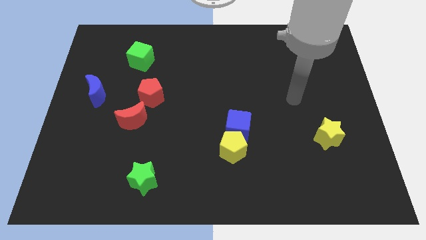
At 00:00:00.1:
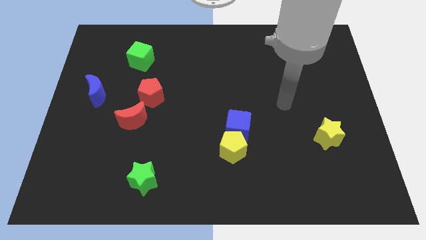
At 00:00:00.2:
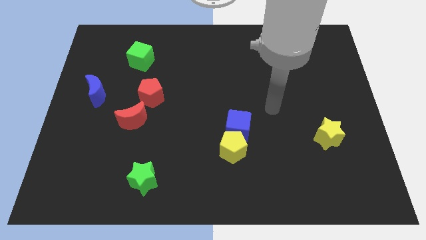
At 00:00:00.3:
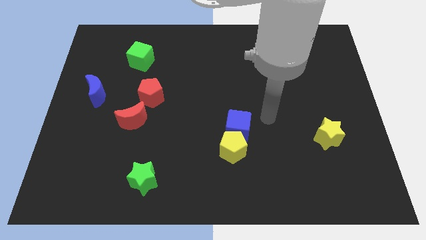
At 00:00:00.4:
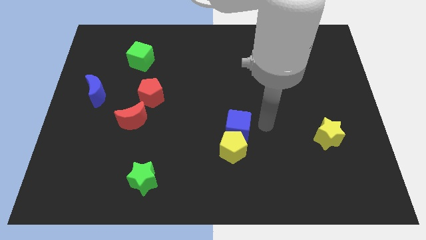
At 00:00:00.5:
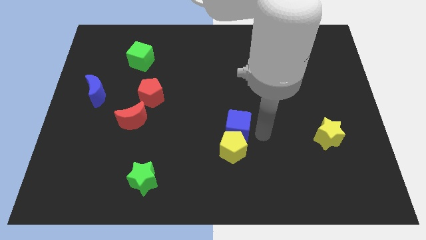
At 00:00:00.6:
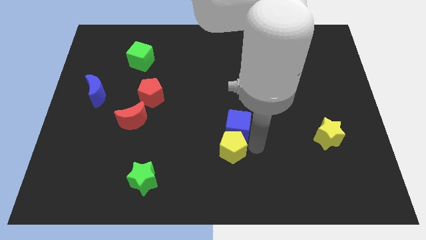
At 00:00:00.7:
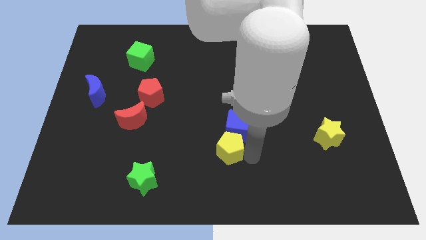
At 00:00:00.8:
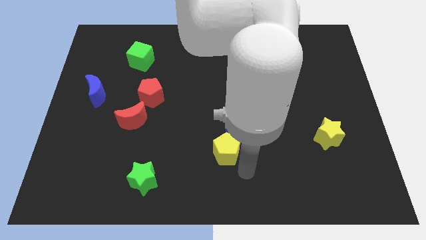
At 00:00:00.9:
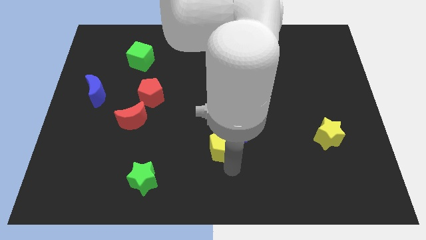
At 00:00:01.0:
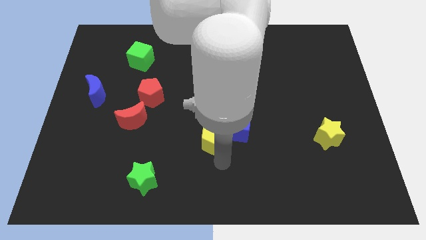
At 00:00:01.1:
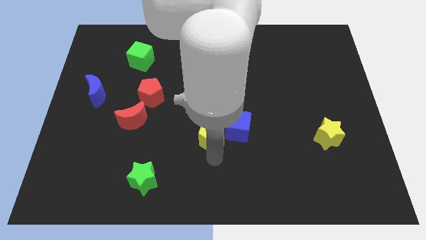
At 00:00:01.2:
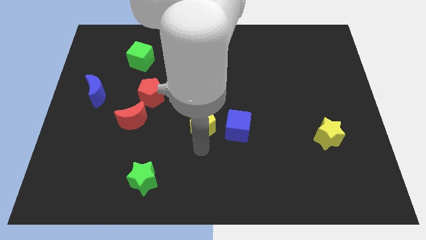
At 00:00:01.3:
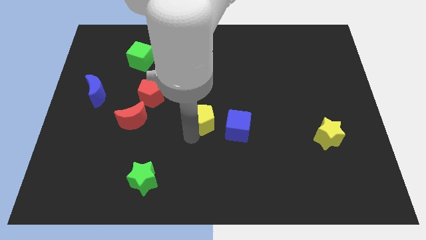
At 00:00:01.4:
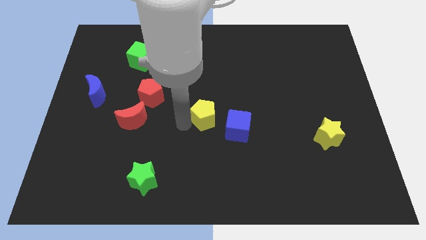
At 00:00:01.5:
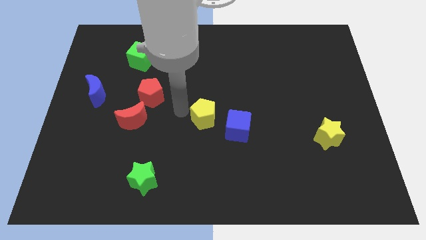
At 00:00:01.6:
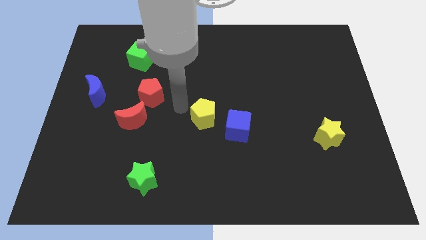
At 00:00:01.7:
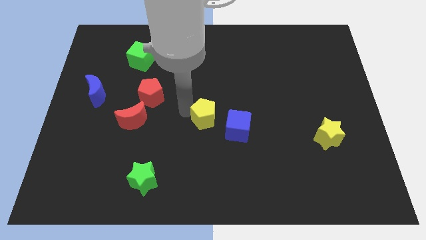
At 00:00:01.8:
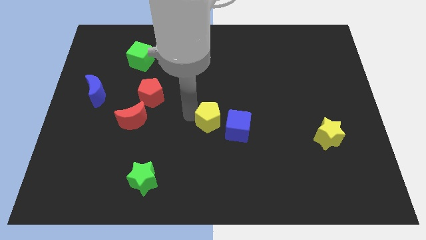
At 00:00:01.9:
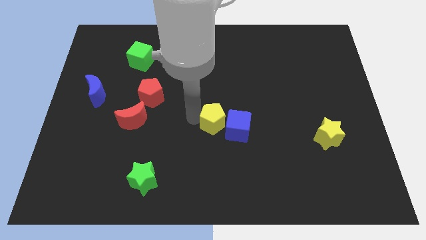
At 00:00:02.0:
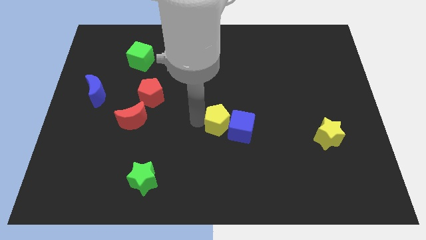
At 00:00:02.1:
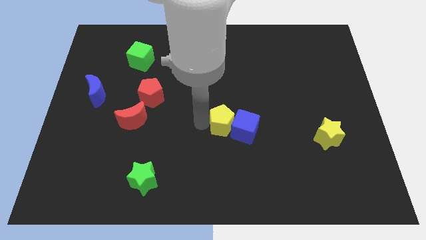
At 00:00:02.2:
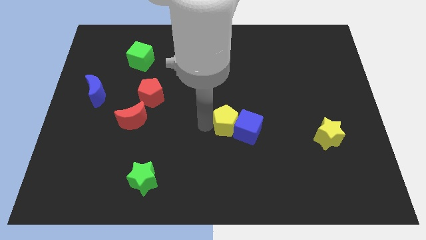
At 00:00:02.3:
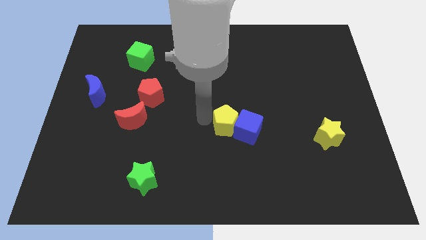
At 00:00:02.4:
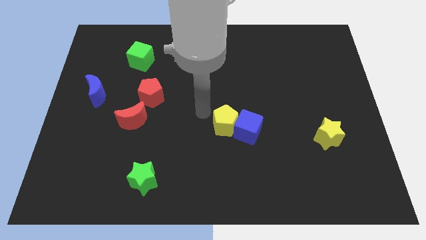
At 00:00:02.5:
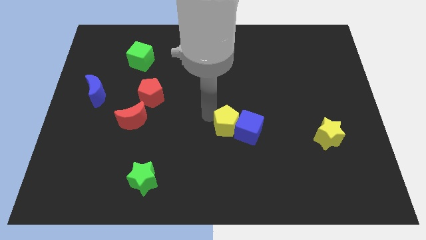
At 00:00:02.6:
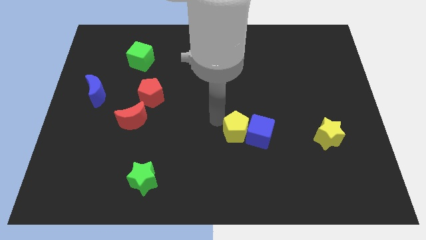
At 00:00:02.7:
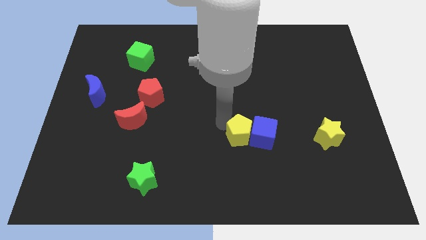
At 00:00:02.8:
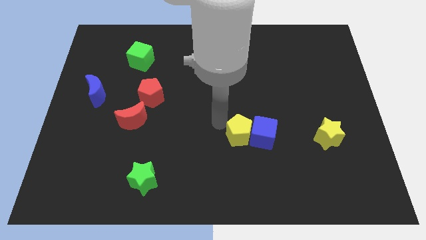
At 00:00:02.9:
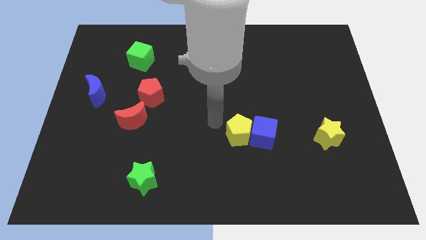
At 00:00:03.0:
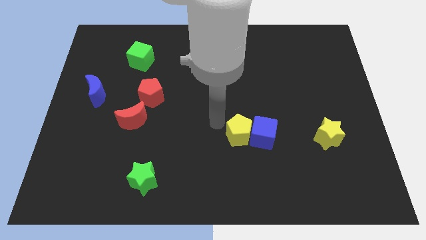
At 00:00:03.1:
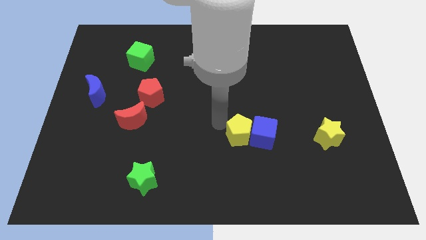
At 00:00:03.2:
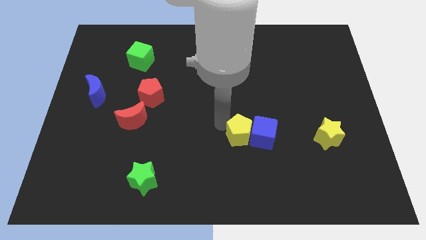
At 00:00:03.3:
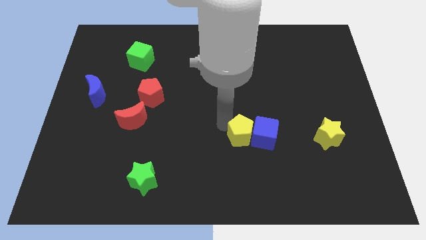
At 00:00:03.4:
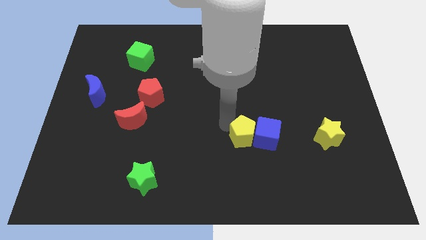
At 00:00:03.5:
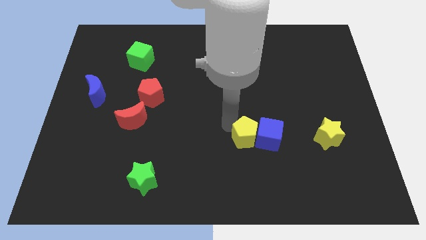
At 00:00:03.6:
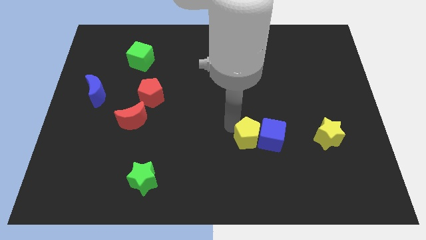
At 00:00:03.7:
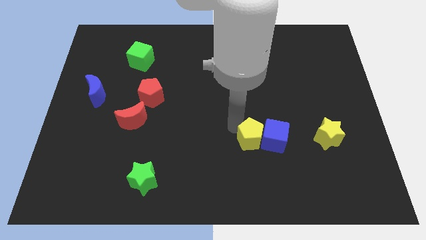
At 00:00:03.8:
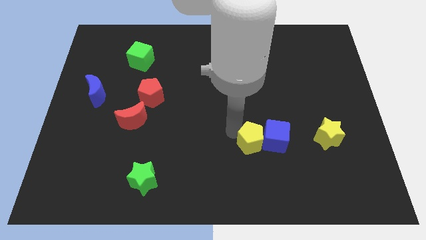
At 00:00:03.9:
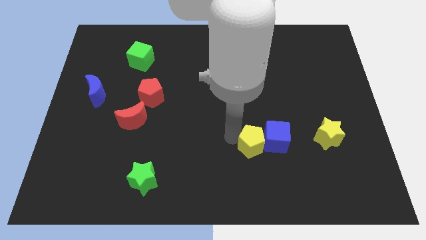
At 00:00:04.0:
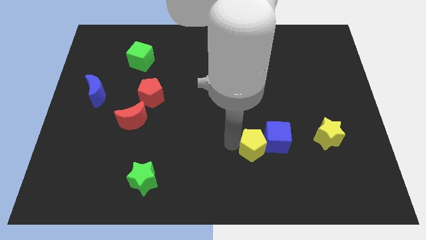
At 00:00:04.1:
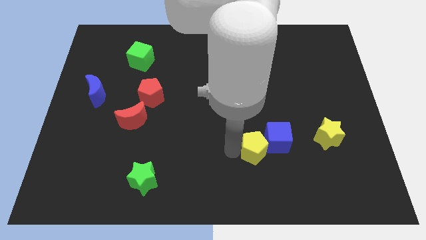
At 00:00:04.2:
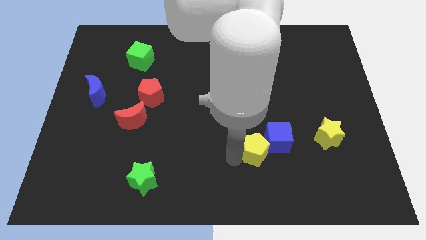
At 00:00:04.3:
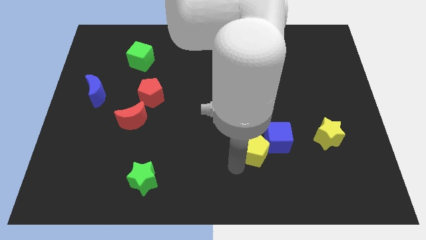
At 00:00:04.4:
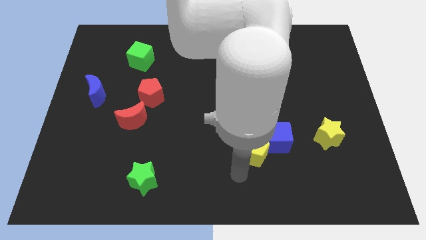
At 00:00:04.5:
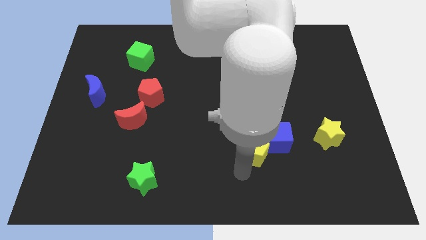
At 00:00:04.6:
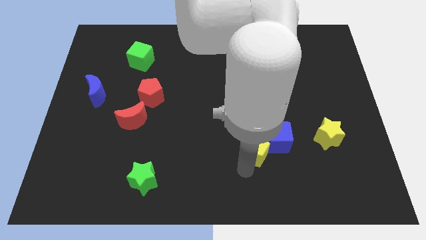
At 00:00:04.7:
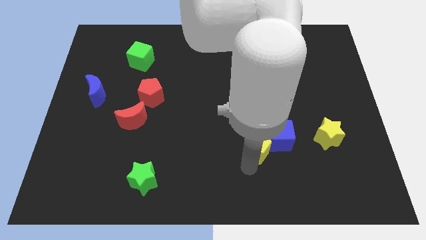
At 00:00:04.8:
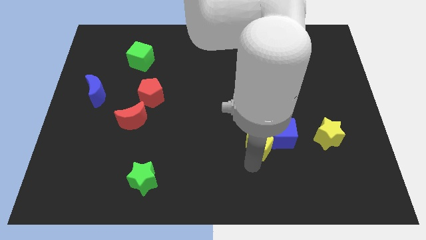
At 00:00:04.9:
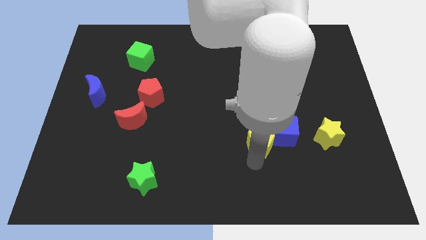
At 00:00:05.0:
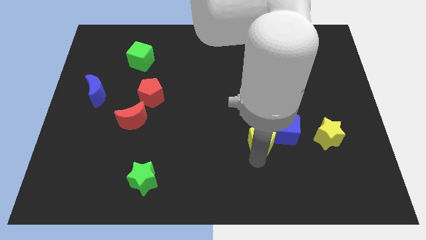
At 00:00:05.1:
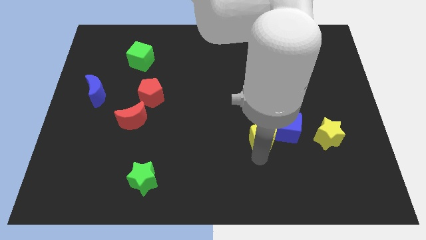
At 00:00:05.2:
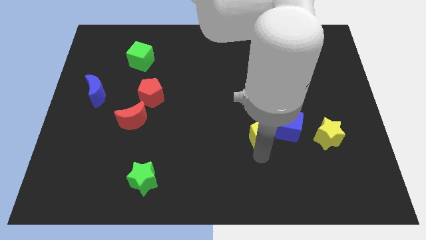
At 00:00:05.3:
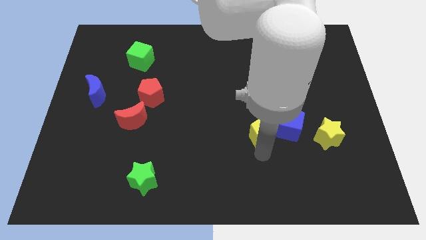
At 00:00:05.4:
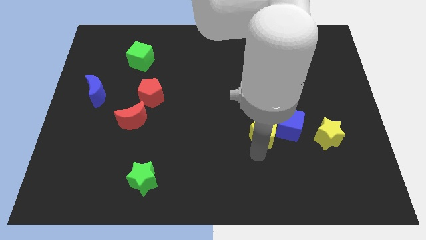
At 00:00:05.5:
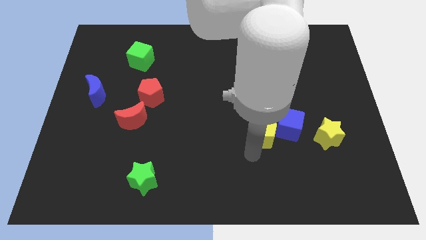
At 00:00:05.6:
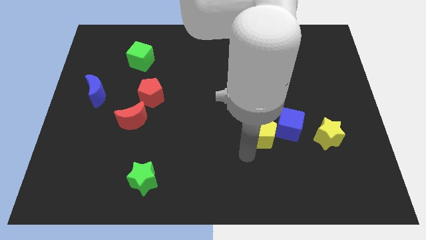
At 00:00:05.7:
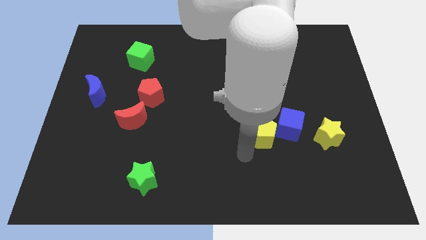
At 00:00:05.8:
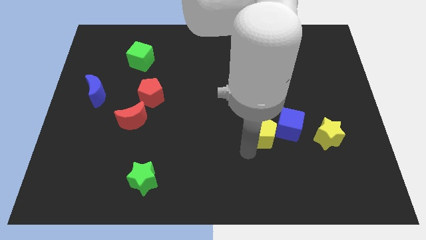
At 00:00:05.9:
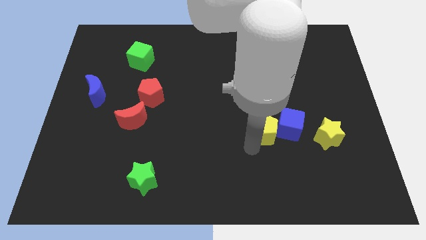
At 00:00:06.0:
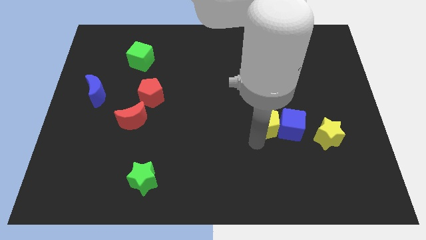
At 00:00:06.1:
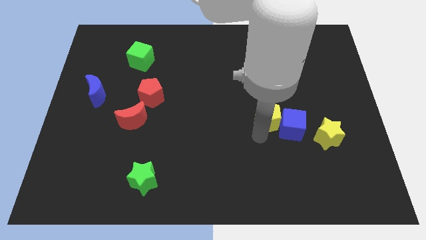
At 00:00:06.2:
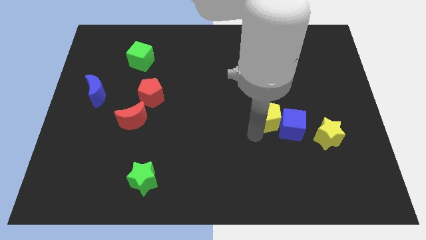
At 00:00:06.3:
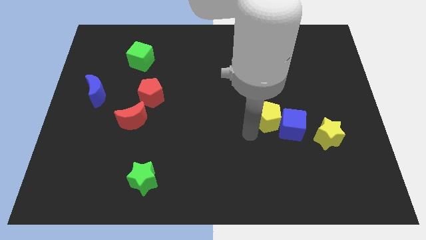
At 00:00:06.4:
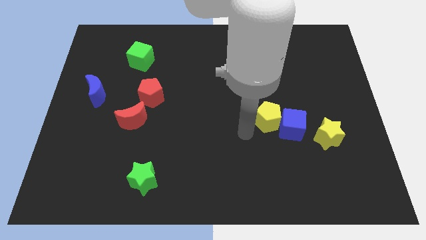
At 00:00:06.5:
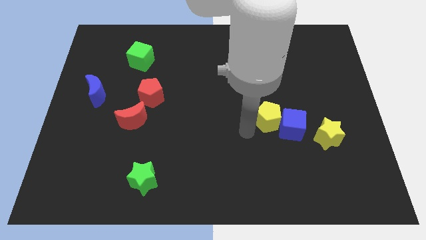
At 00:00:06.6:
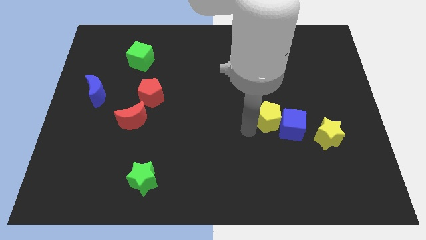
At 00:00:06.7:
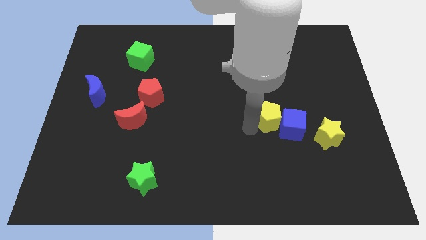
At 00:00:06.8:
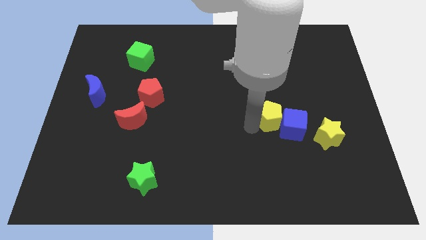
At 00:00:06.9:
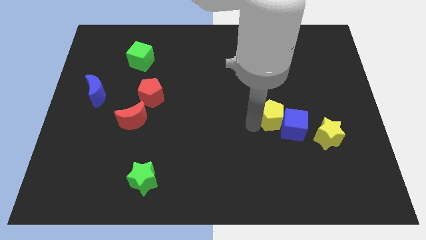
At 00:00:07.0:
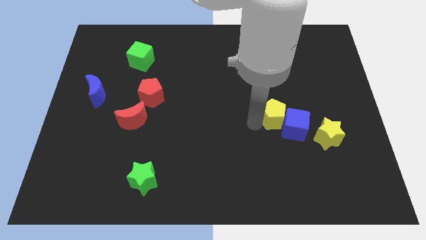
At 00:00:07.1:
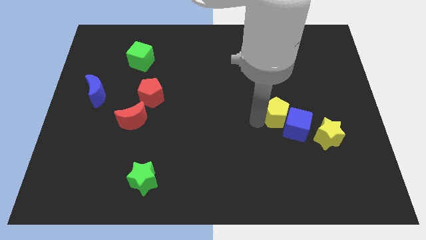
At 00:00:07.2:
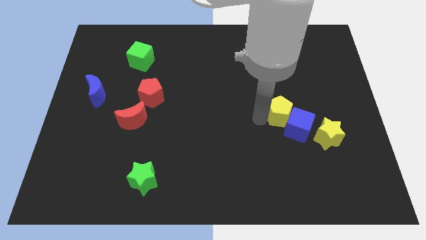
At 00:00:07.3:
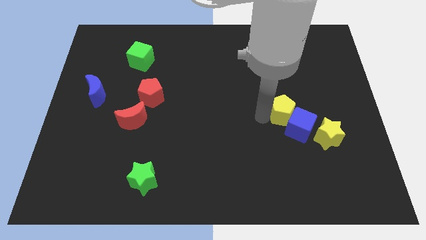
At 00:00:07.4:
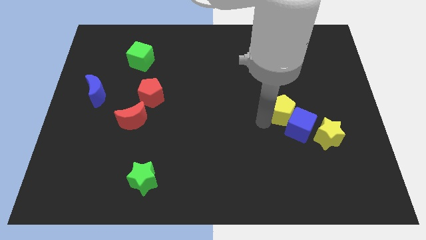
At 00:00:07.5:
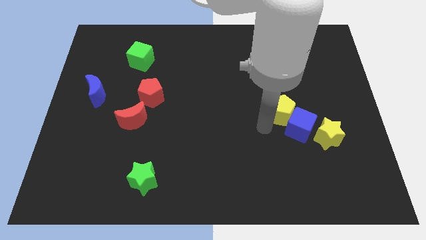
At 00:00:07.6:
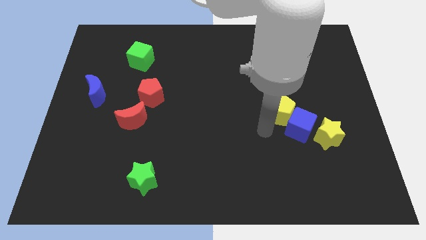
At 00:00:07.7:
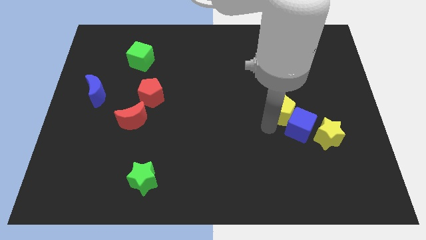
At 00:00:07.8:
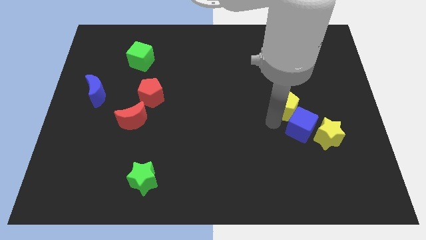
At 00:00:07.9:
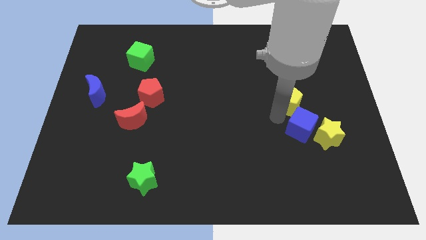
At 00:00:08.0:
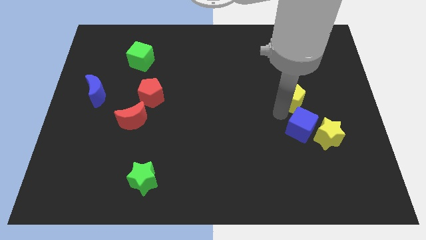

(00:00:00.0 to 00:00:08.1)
move the yellow pentagon upwards and to the right
